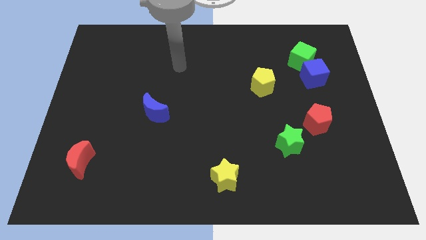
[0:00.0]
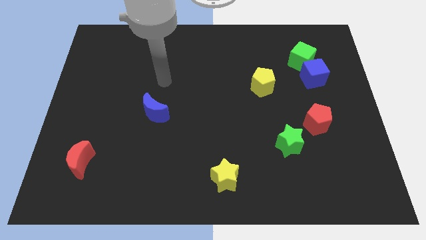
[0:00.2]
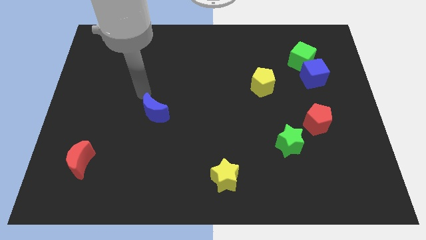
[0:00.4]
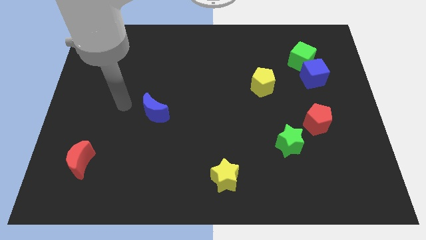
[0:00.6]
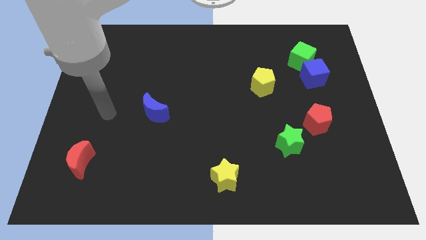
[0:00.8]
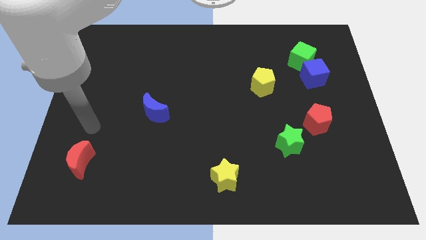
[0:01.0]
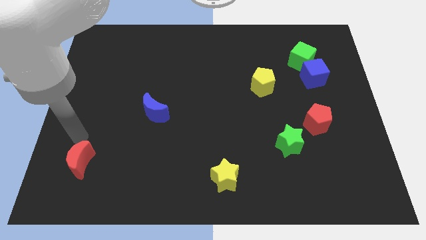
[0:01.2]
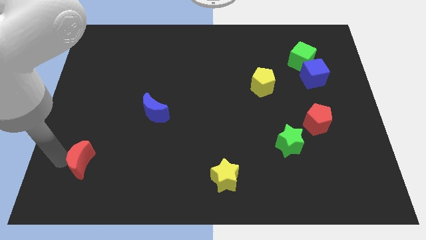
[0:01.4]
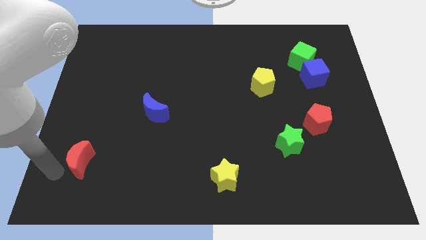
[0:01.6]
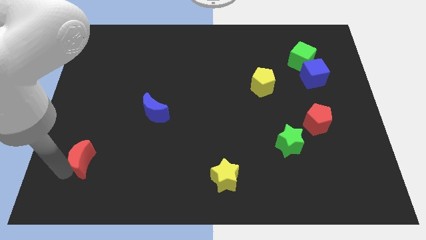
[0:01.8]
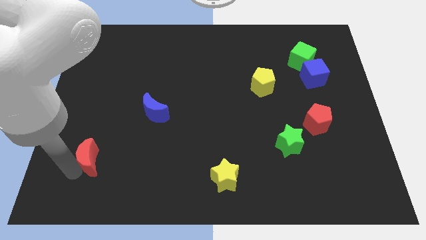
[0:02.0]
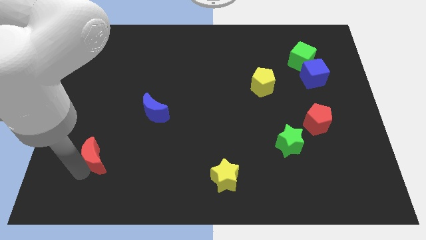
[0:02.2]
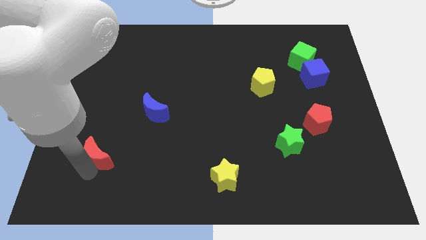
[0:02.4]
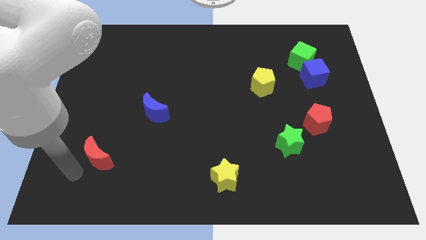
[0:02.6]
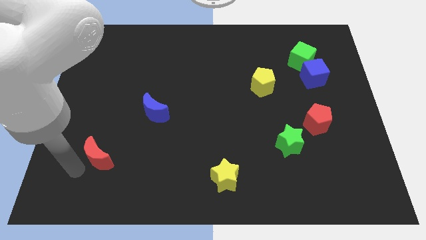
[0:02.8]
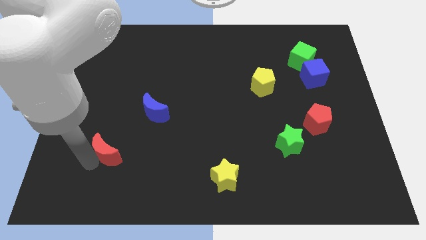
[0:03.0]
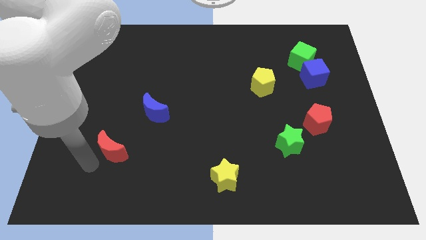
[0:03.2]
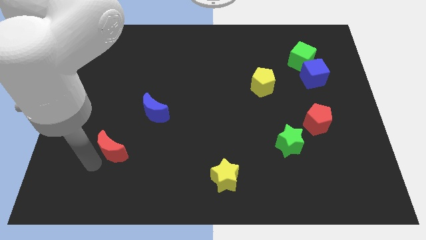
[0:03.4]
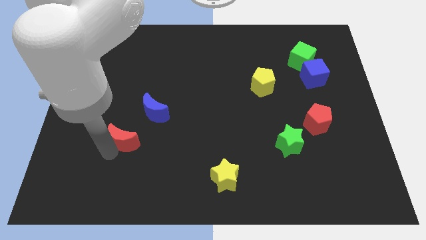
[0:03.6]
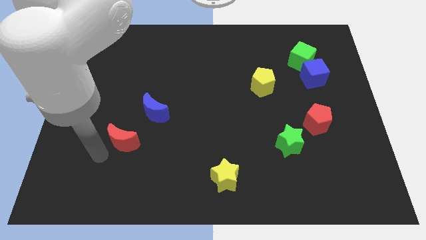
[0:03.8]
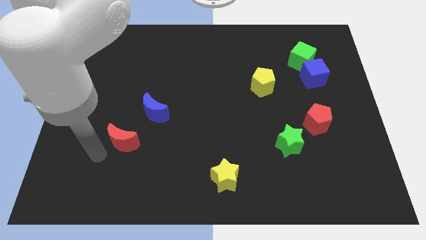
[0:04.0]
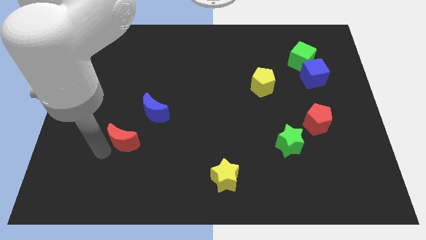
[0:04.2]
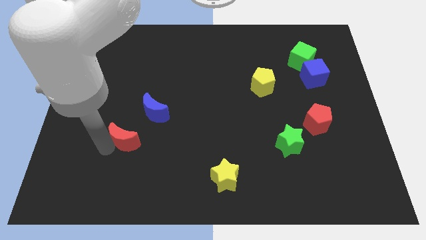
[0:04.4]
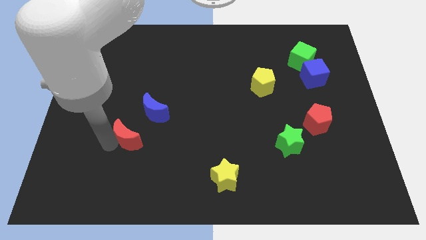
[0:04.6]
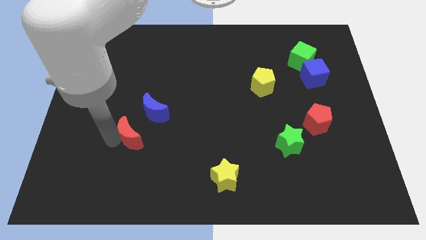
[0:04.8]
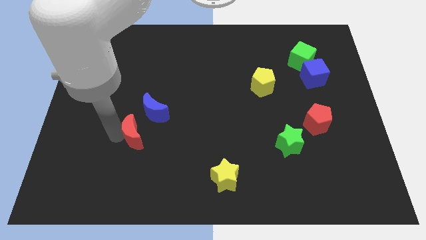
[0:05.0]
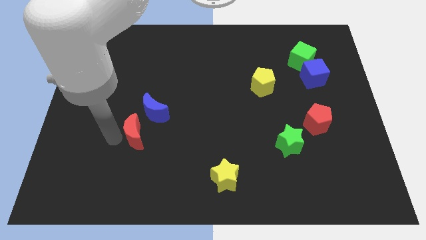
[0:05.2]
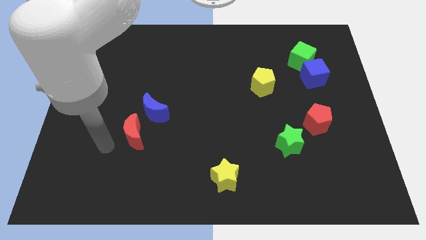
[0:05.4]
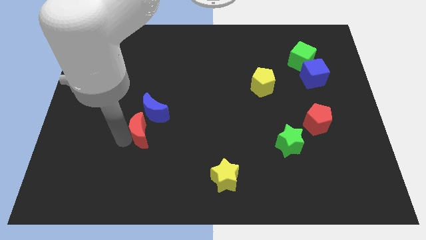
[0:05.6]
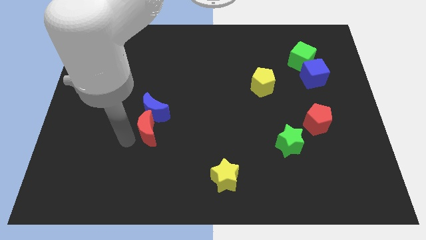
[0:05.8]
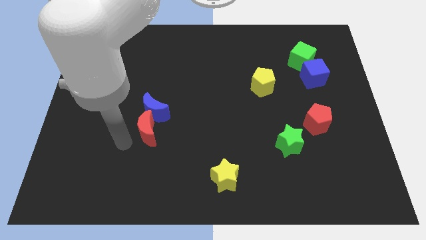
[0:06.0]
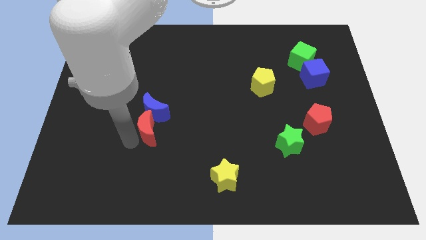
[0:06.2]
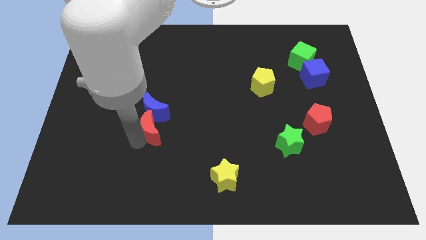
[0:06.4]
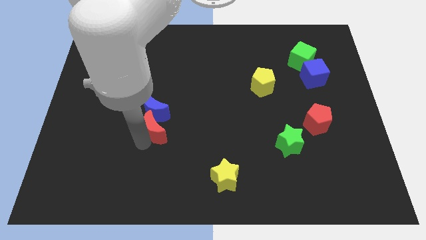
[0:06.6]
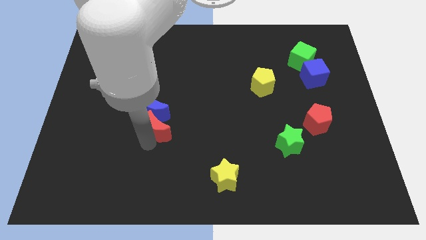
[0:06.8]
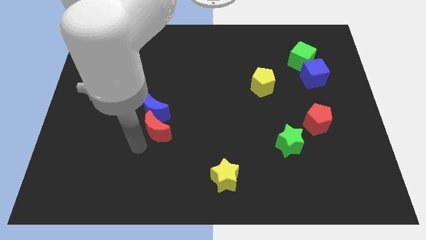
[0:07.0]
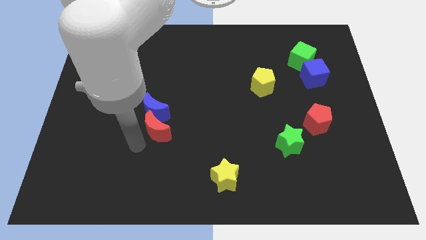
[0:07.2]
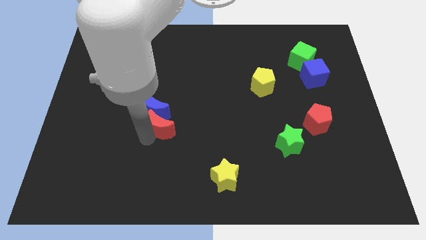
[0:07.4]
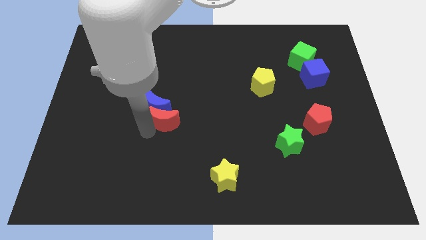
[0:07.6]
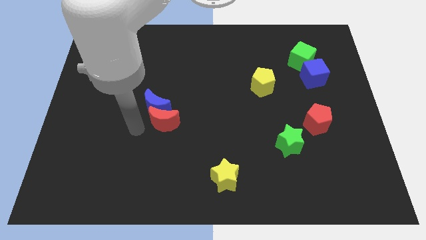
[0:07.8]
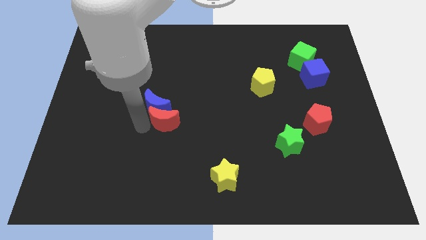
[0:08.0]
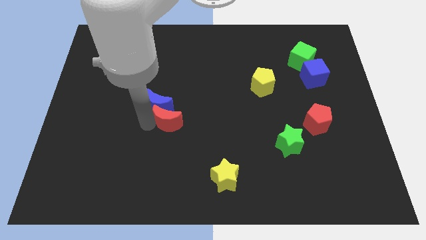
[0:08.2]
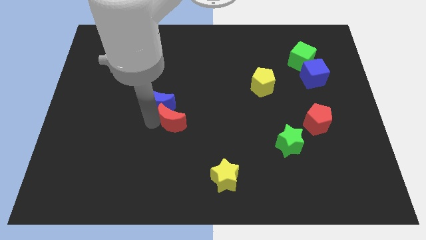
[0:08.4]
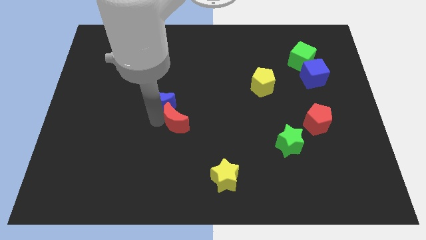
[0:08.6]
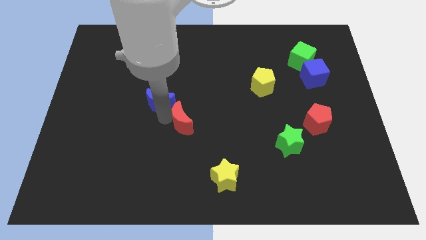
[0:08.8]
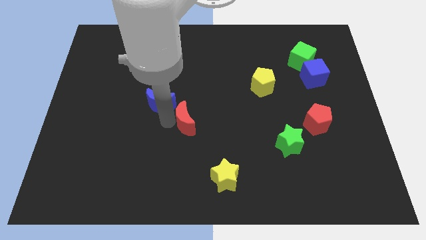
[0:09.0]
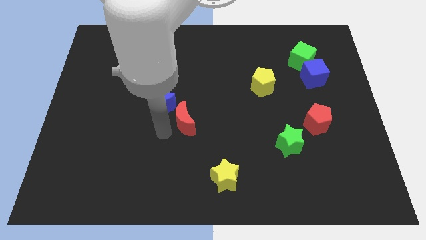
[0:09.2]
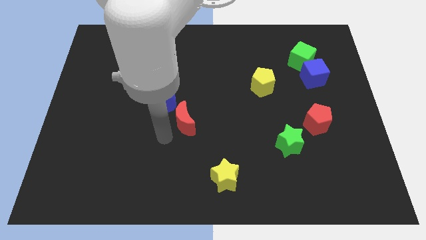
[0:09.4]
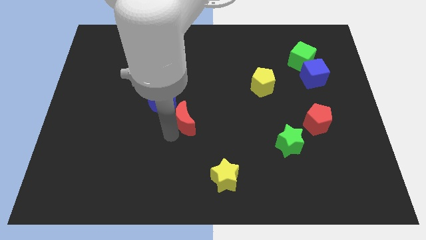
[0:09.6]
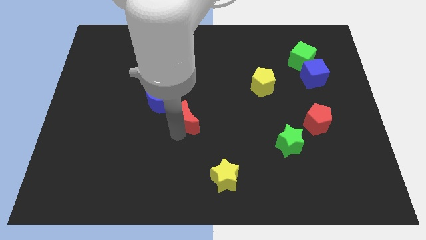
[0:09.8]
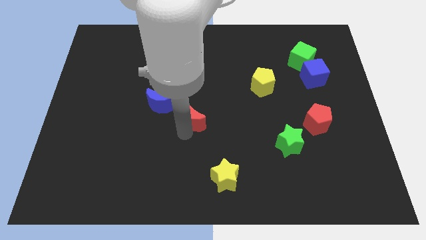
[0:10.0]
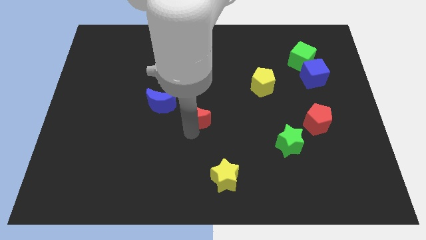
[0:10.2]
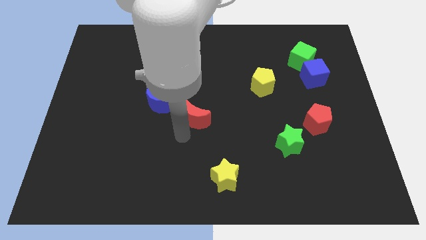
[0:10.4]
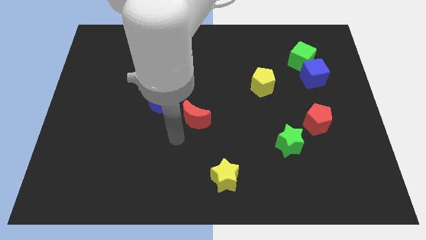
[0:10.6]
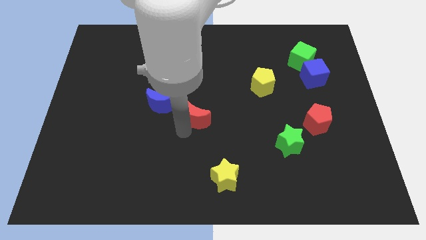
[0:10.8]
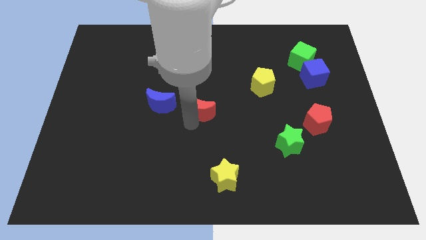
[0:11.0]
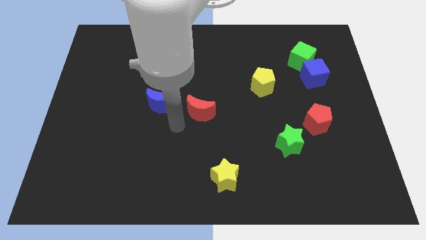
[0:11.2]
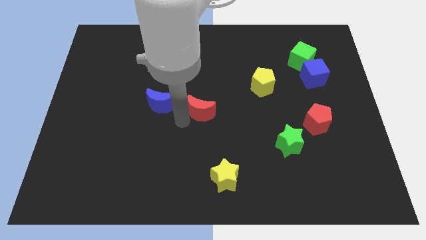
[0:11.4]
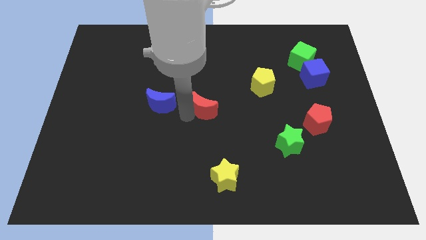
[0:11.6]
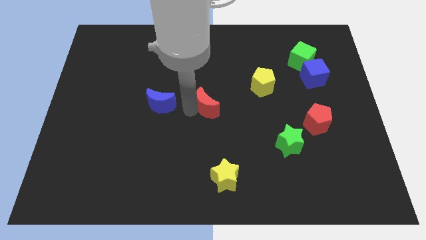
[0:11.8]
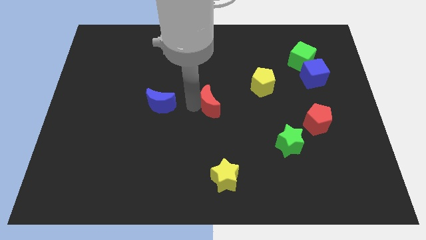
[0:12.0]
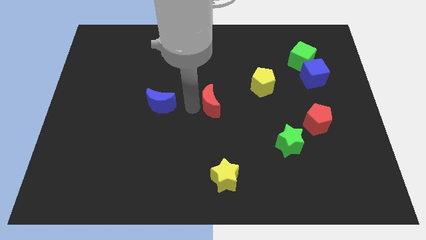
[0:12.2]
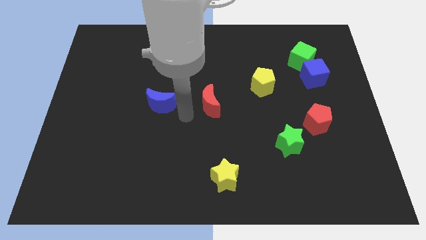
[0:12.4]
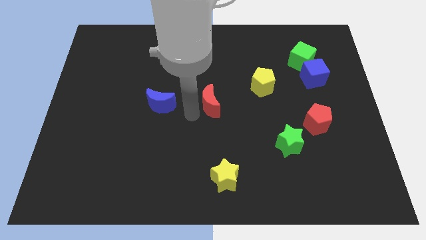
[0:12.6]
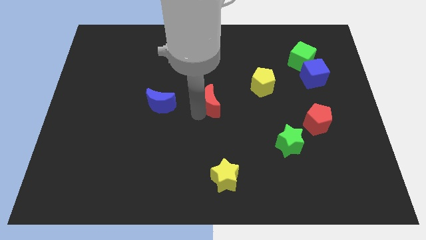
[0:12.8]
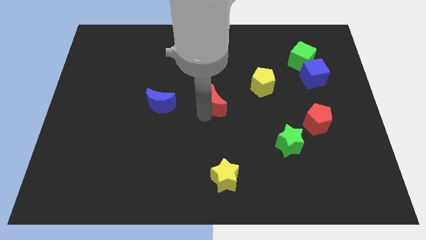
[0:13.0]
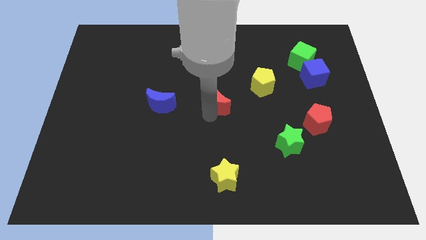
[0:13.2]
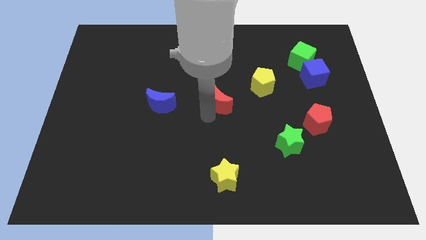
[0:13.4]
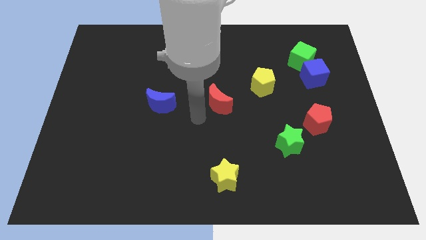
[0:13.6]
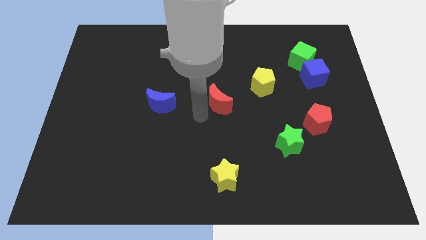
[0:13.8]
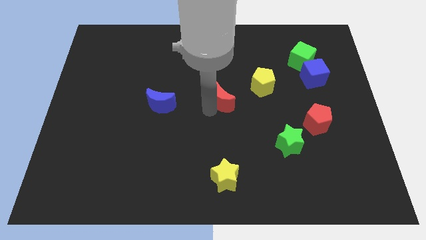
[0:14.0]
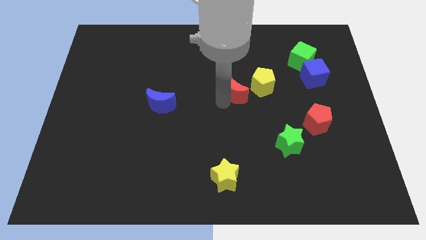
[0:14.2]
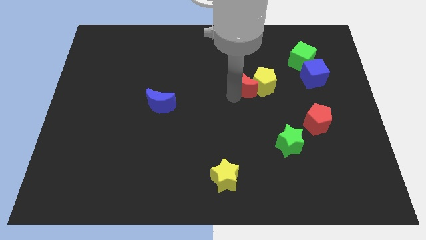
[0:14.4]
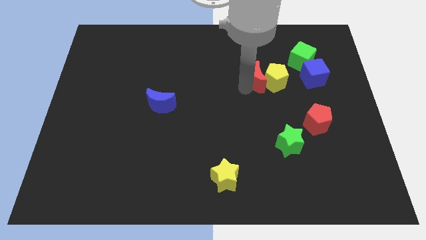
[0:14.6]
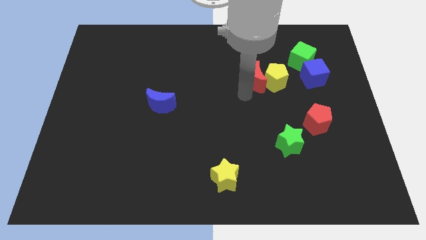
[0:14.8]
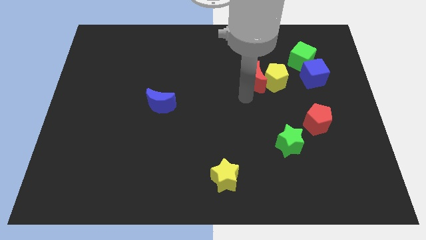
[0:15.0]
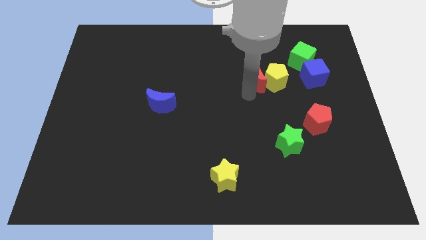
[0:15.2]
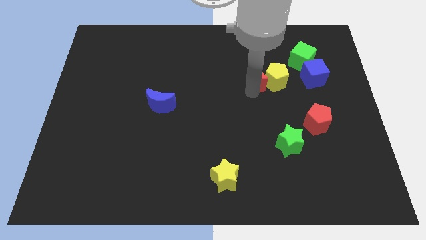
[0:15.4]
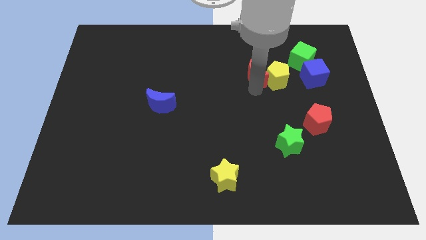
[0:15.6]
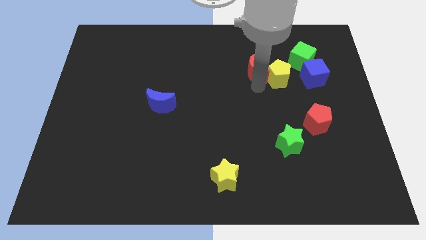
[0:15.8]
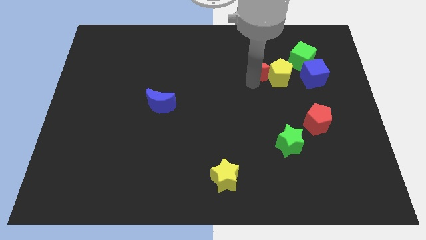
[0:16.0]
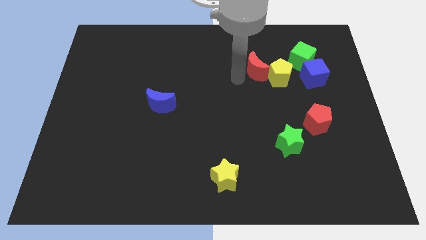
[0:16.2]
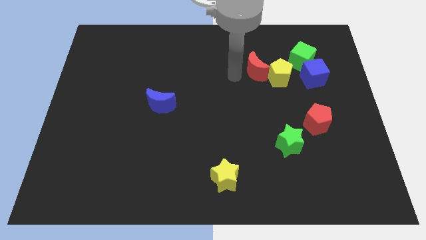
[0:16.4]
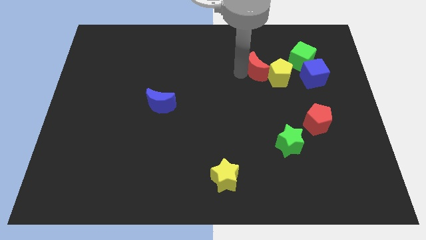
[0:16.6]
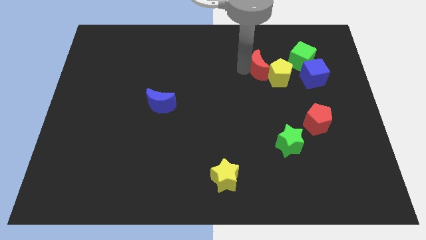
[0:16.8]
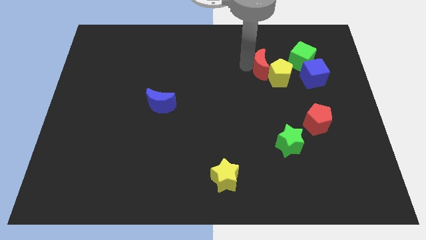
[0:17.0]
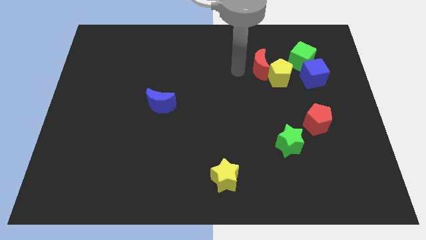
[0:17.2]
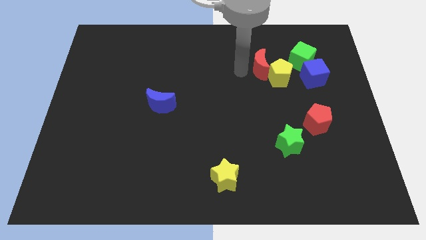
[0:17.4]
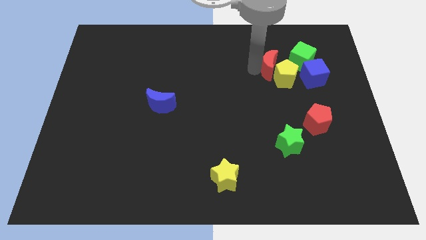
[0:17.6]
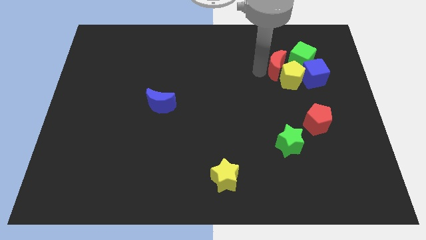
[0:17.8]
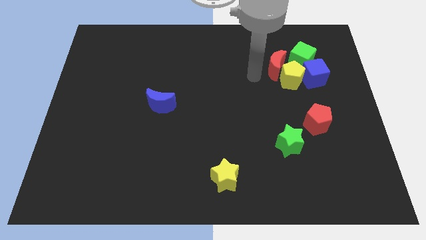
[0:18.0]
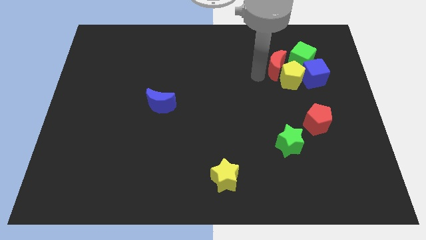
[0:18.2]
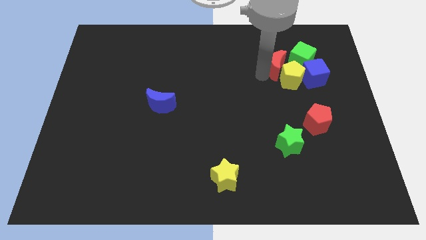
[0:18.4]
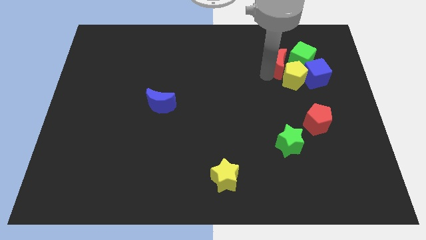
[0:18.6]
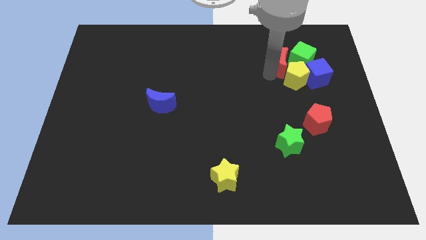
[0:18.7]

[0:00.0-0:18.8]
push the red moon to the green cube
